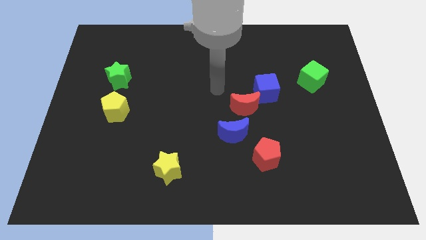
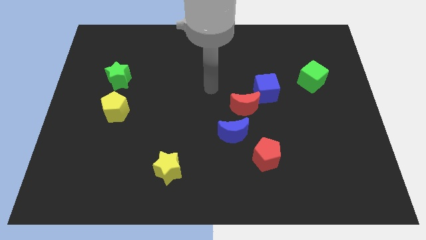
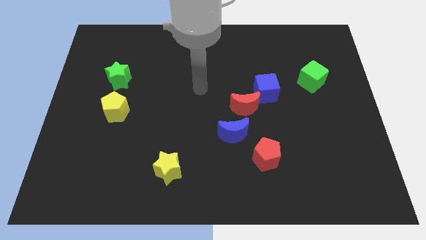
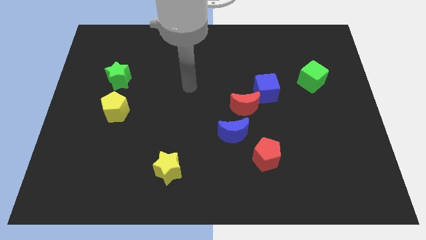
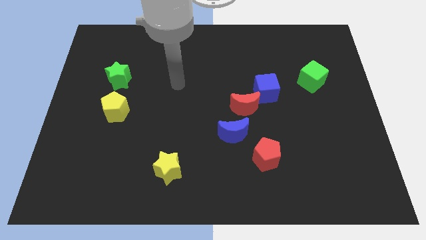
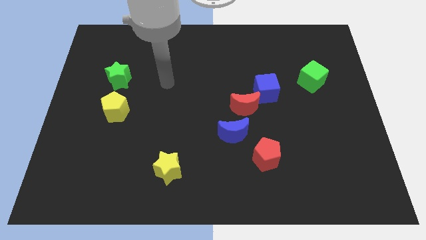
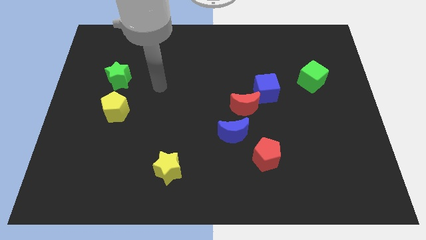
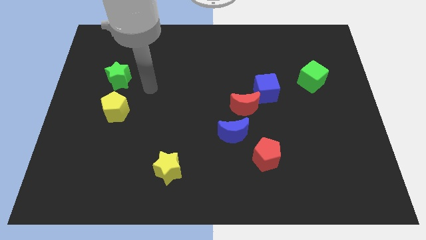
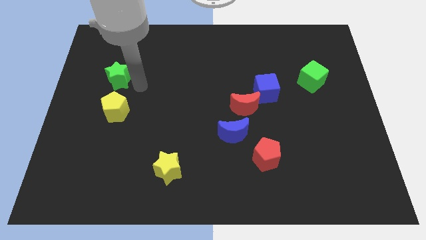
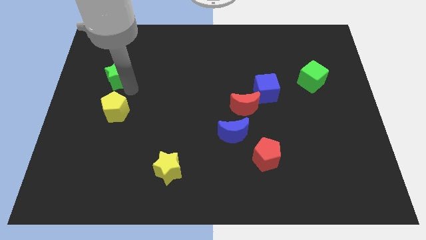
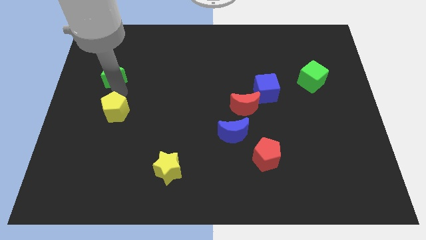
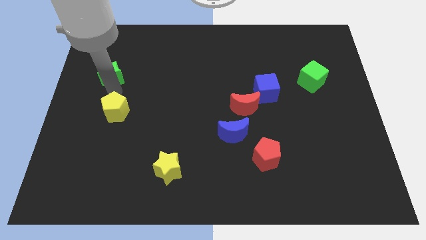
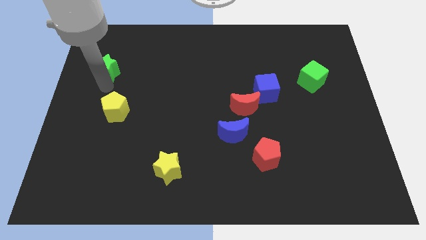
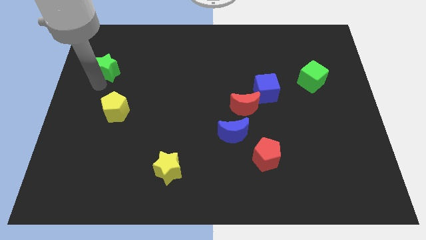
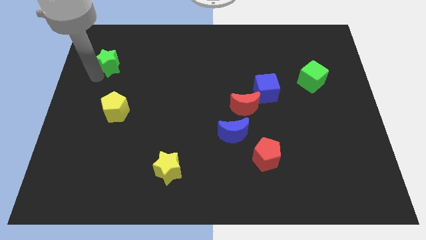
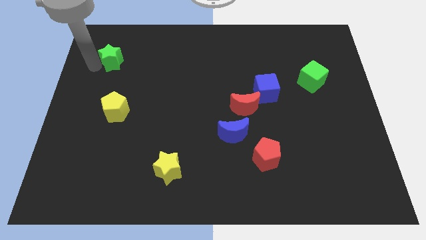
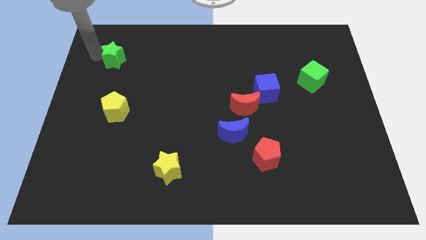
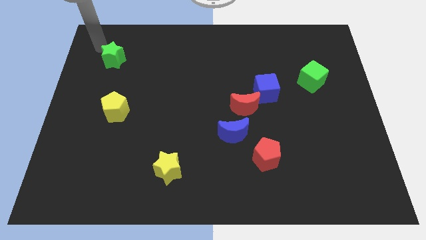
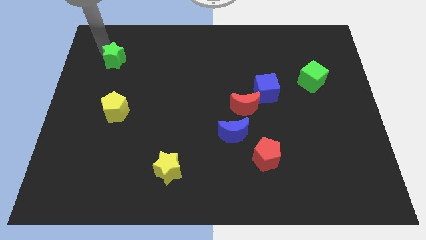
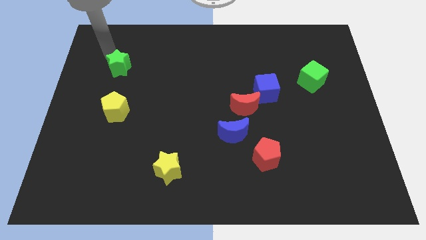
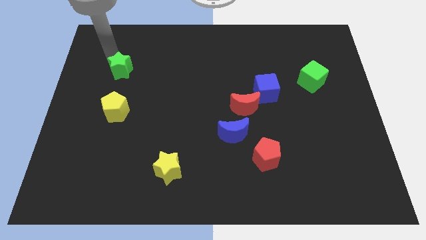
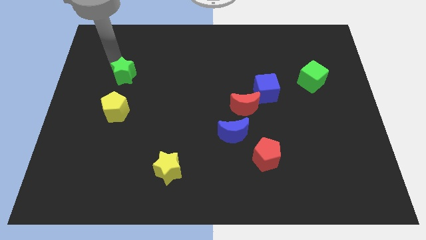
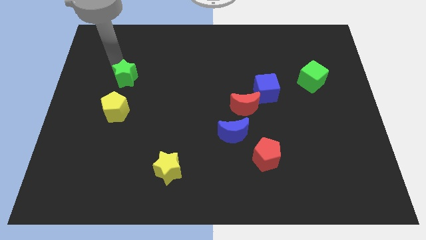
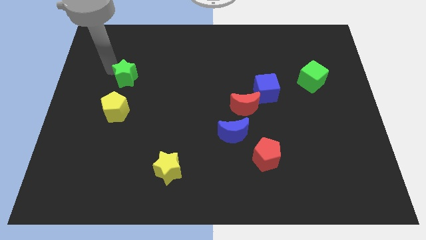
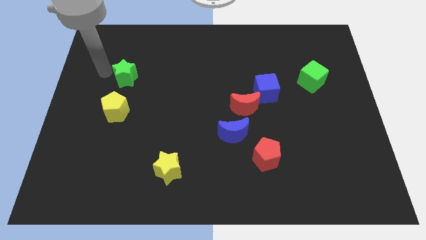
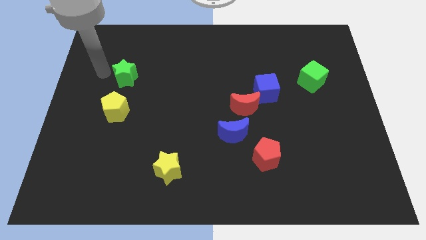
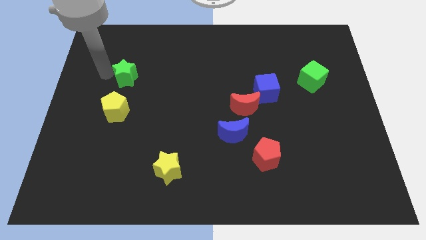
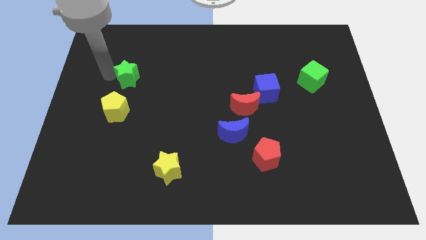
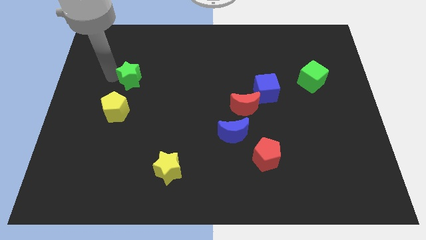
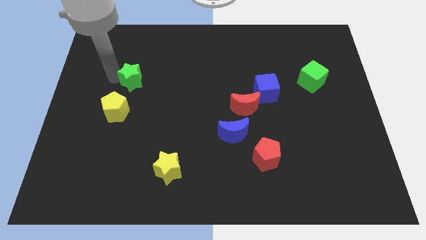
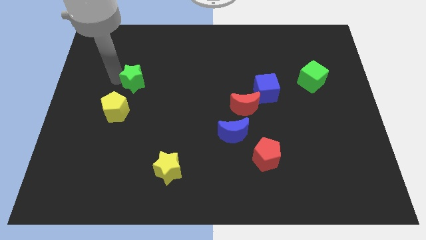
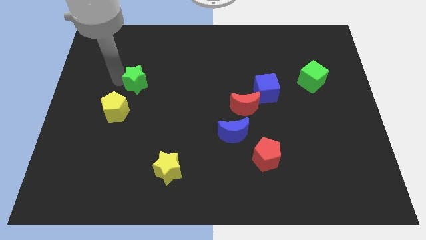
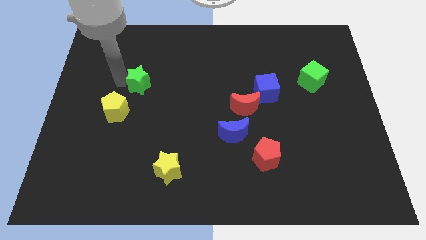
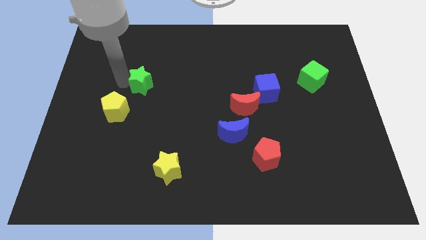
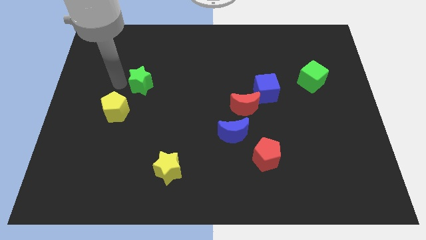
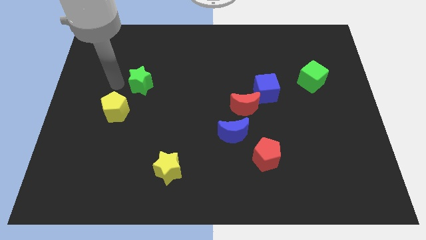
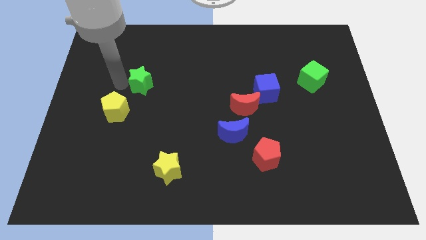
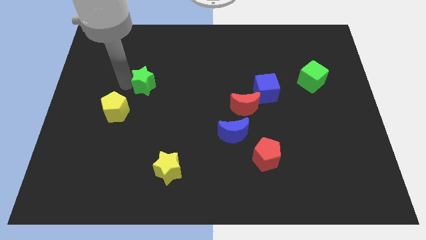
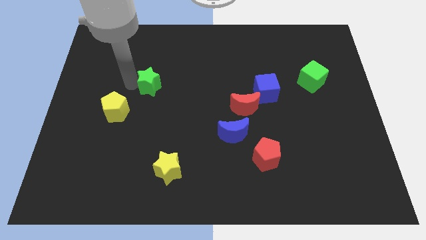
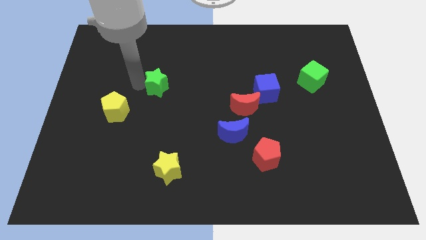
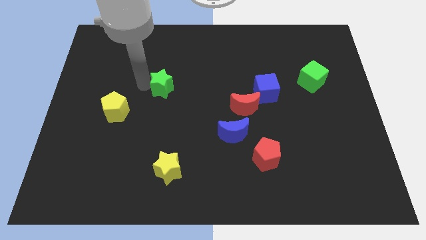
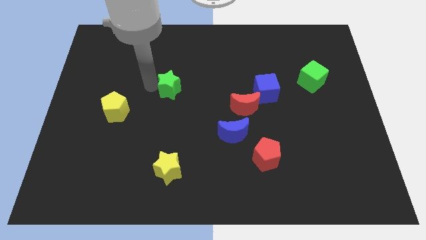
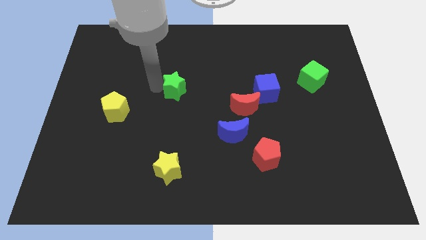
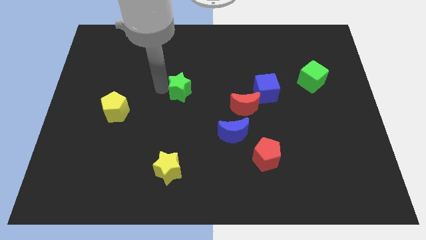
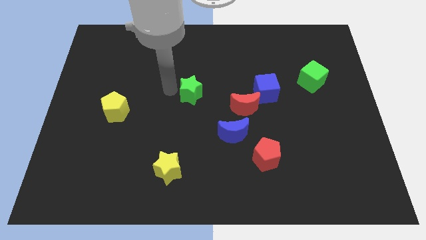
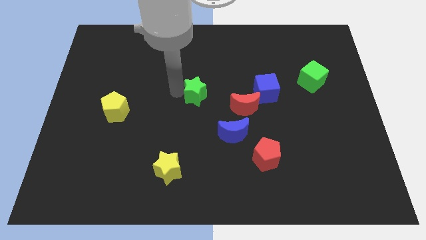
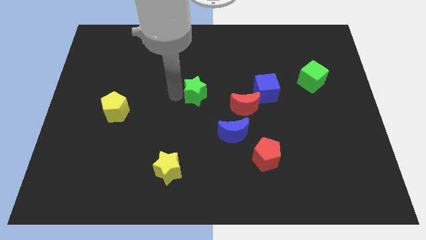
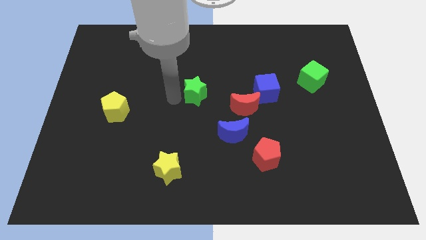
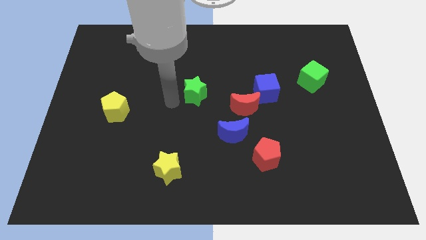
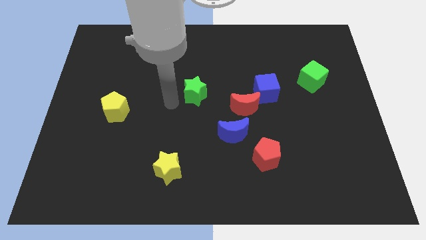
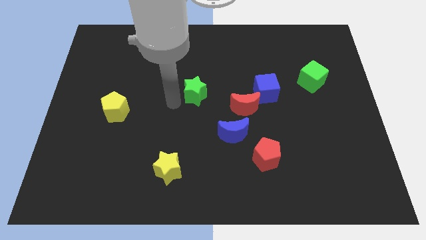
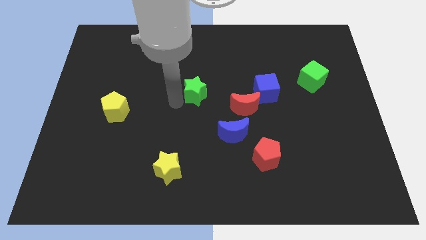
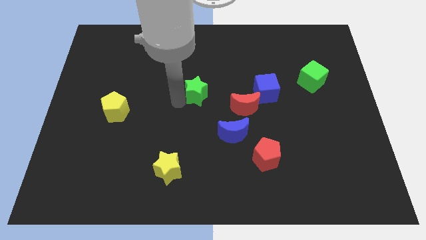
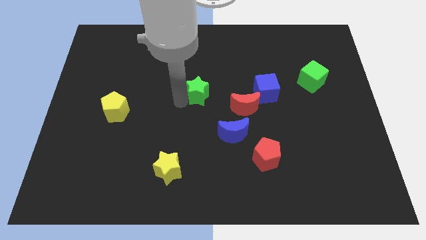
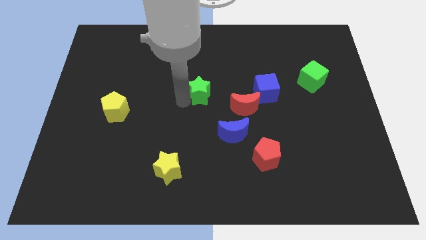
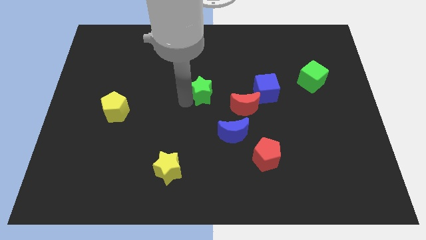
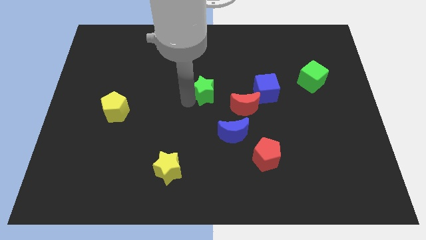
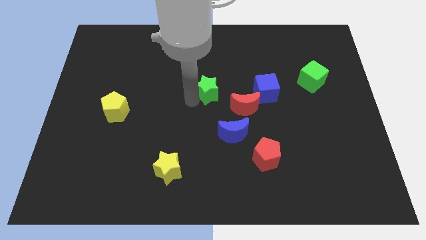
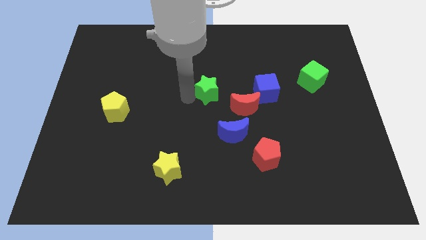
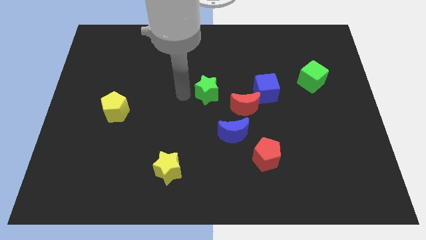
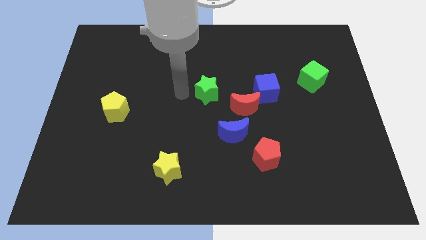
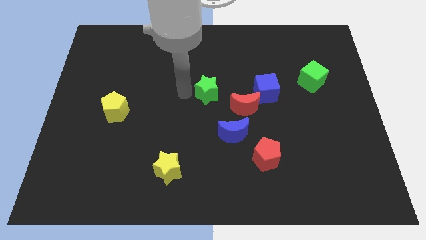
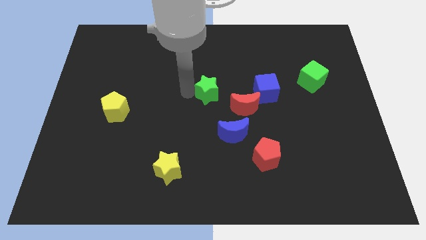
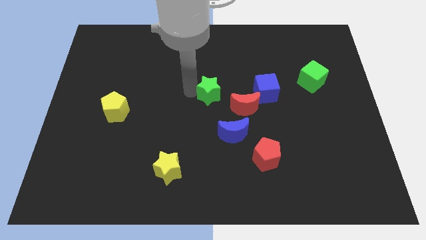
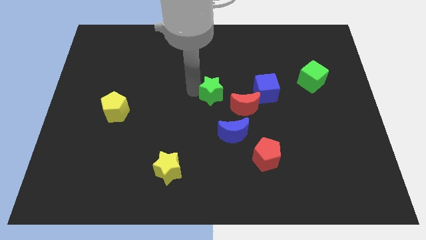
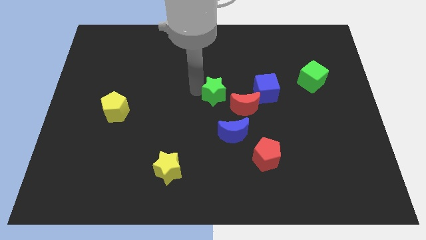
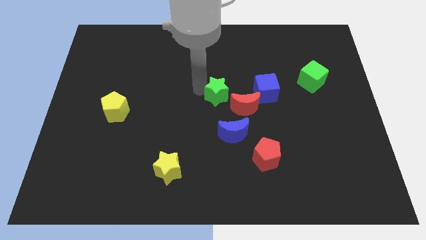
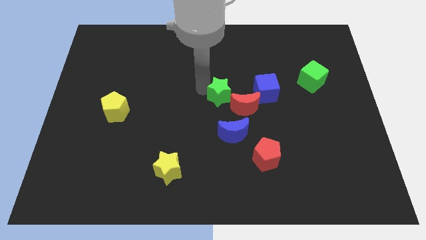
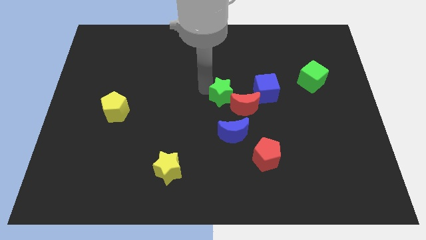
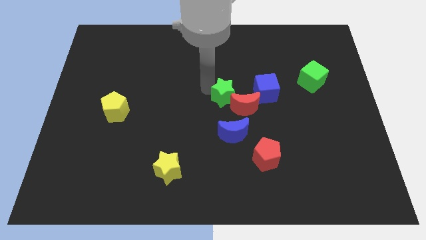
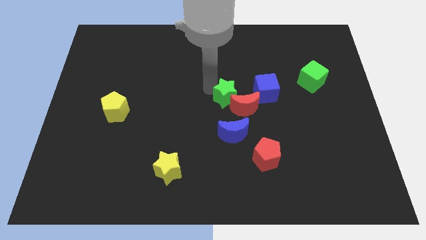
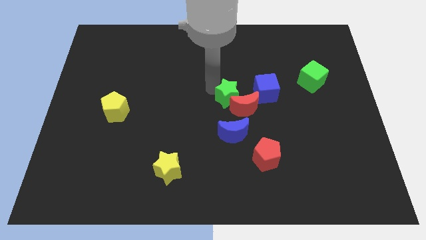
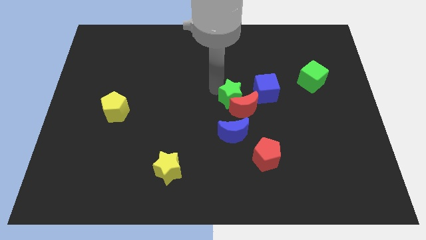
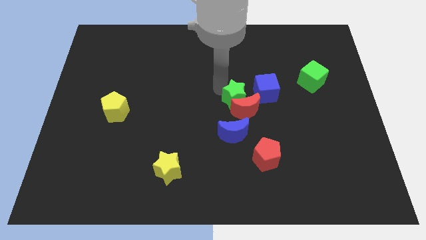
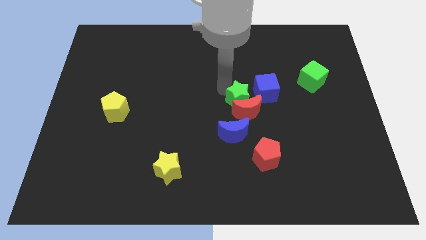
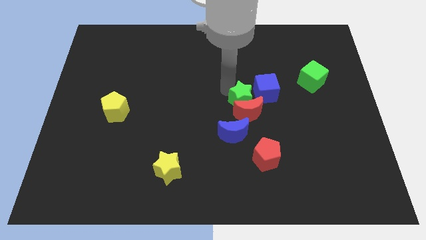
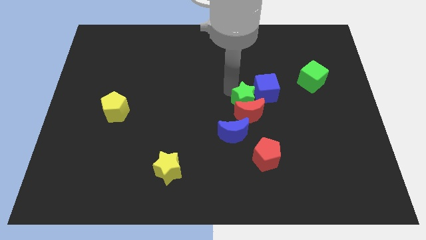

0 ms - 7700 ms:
put the green star next to the blue cube
